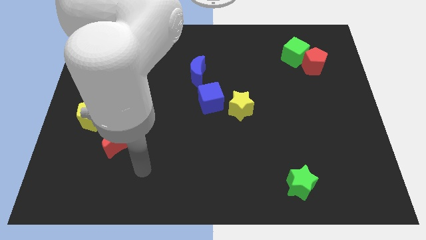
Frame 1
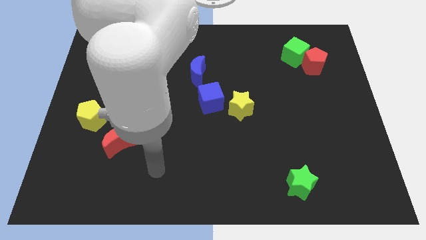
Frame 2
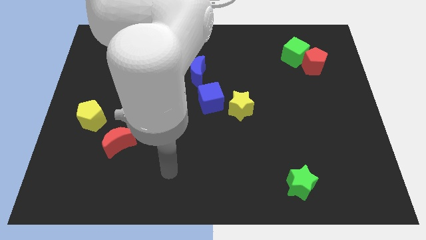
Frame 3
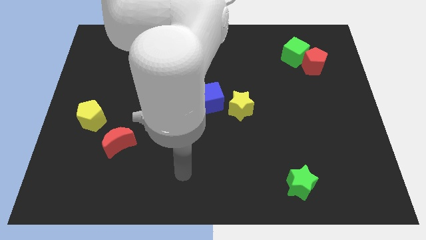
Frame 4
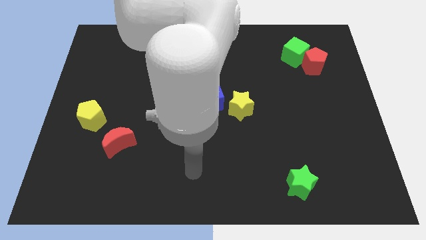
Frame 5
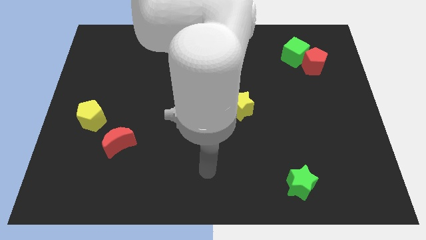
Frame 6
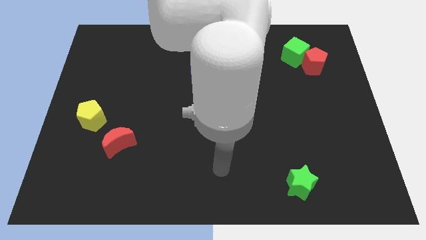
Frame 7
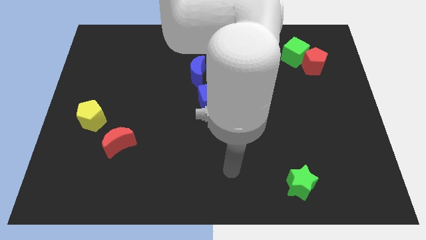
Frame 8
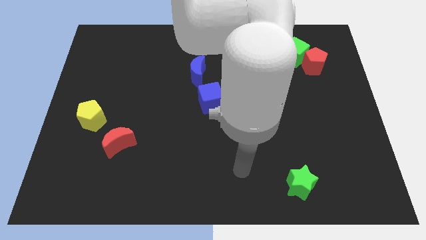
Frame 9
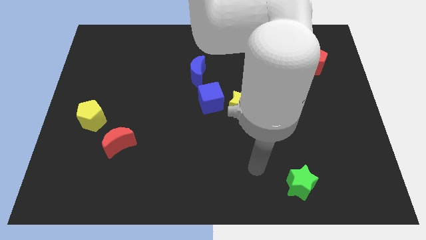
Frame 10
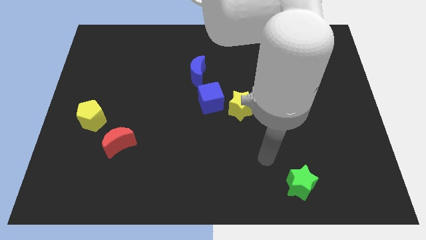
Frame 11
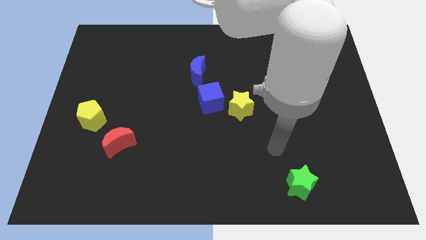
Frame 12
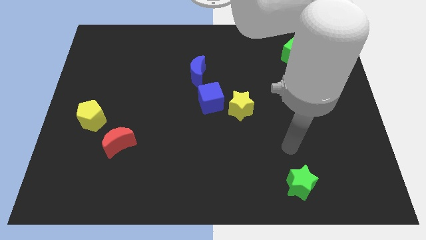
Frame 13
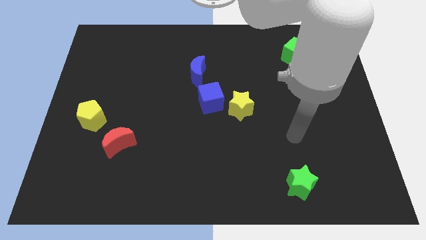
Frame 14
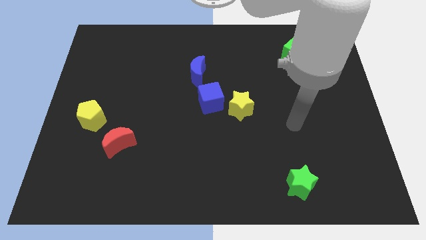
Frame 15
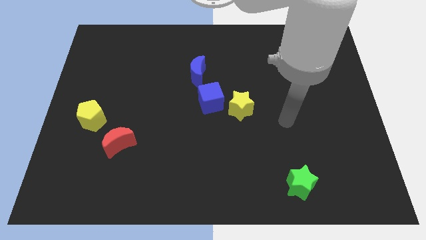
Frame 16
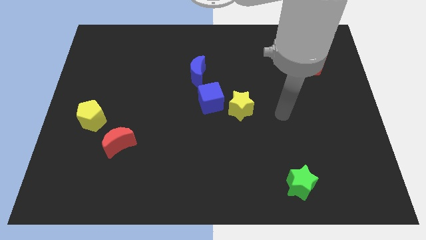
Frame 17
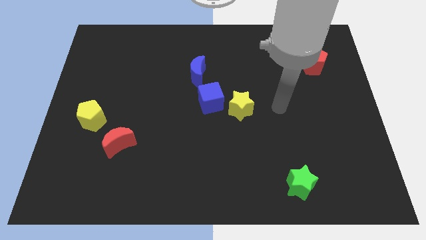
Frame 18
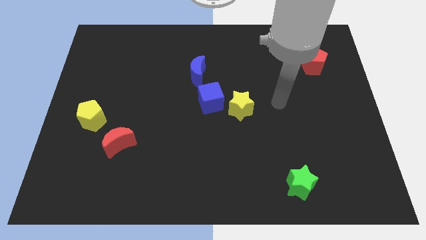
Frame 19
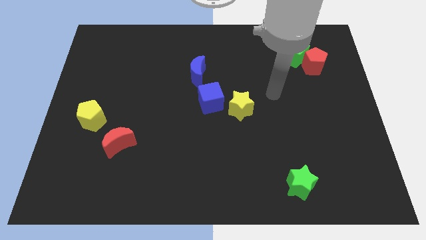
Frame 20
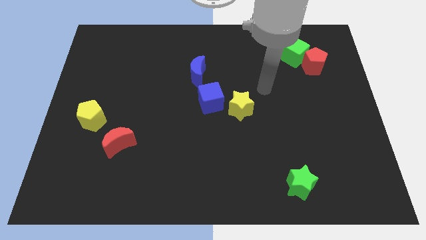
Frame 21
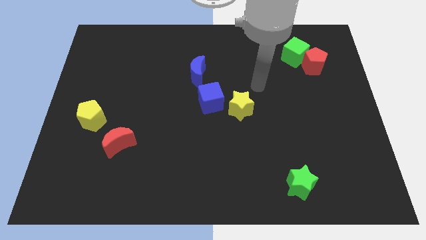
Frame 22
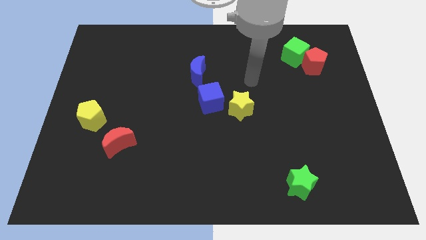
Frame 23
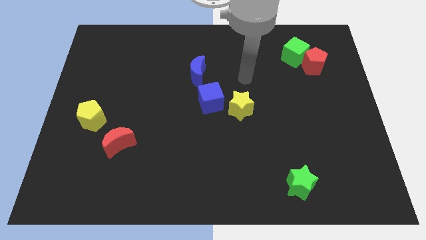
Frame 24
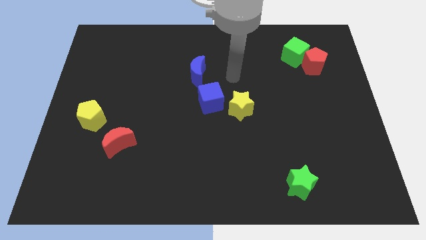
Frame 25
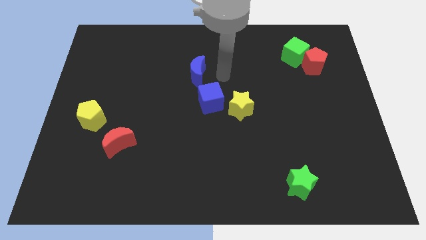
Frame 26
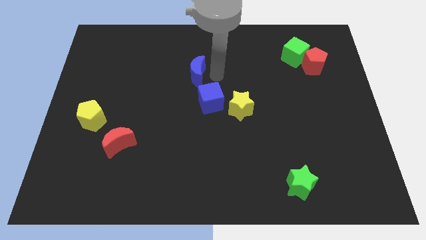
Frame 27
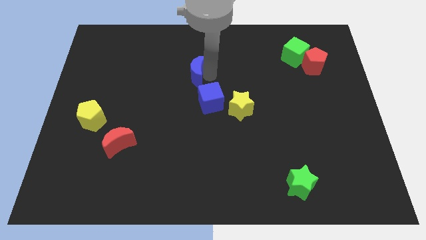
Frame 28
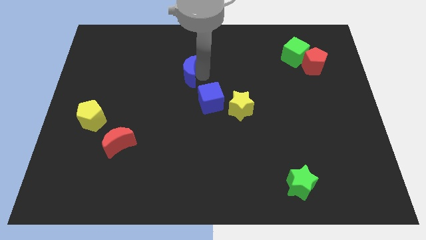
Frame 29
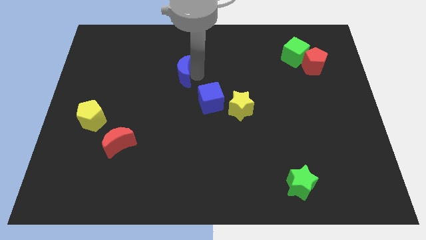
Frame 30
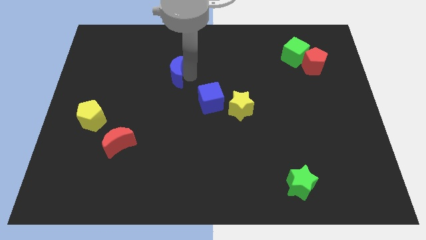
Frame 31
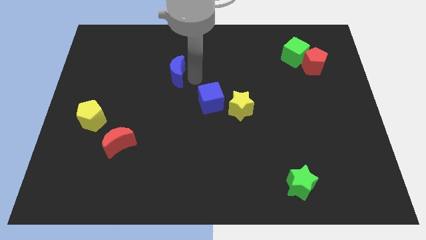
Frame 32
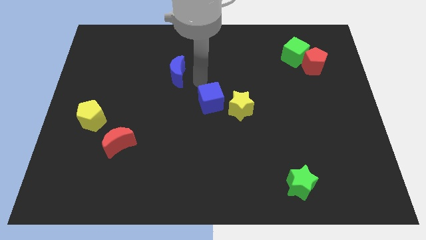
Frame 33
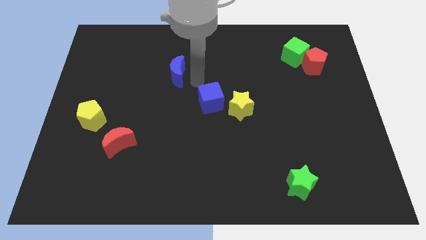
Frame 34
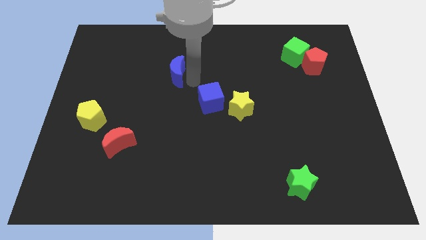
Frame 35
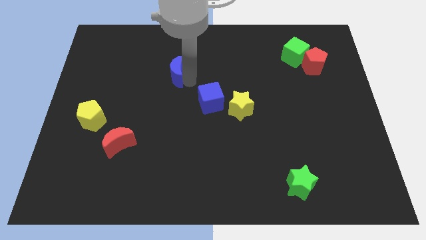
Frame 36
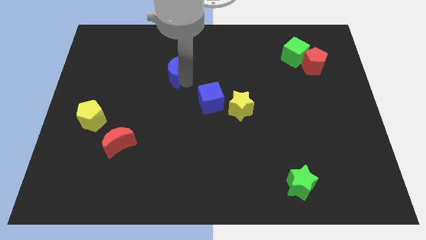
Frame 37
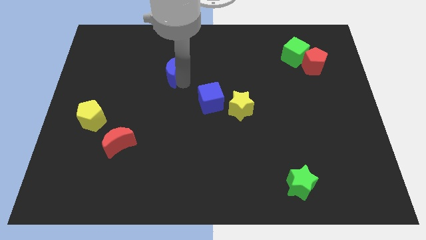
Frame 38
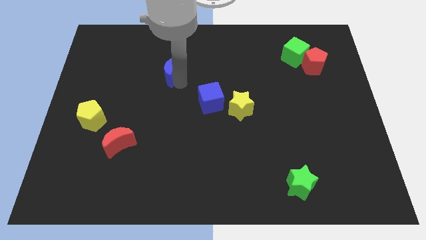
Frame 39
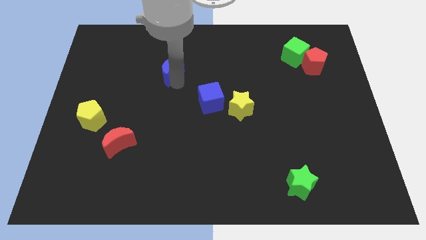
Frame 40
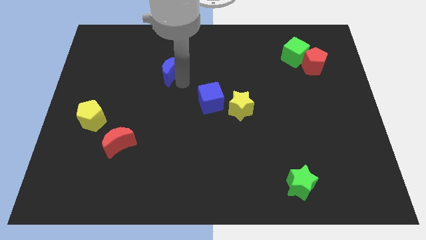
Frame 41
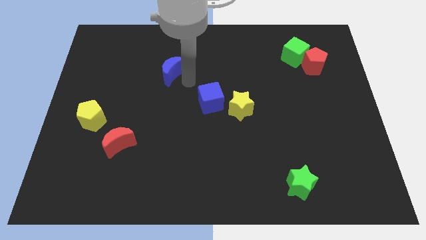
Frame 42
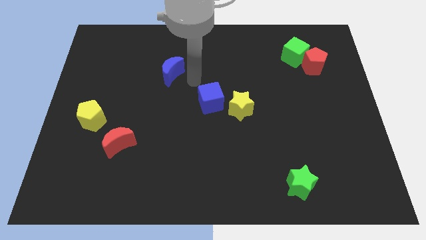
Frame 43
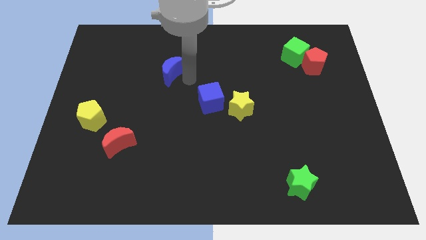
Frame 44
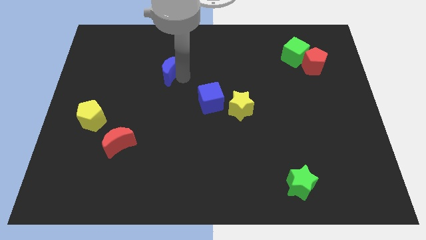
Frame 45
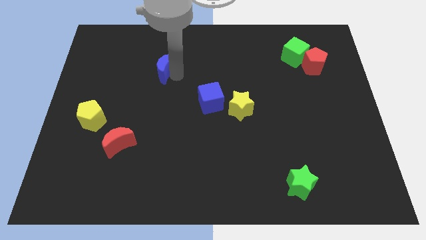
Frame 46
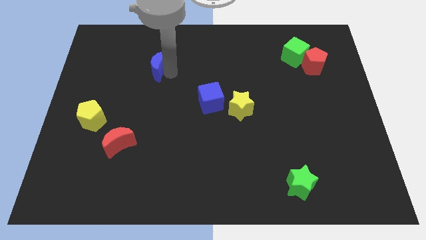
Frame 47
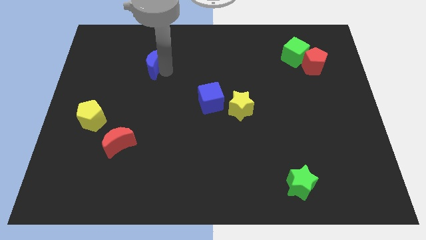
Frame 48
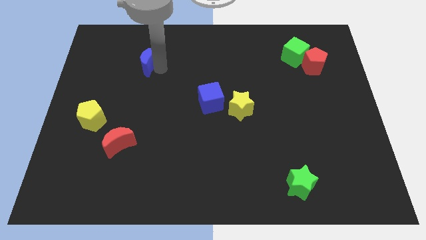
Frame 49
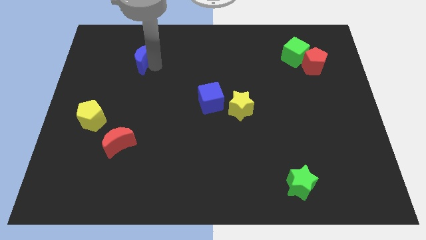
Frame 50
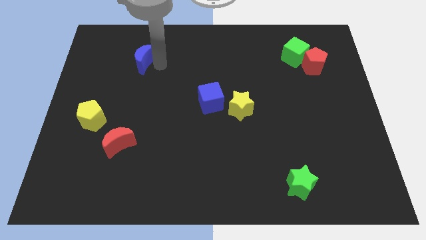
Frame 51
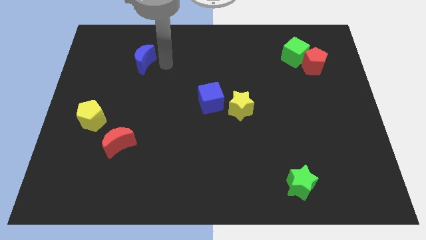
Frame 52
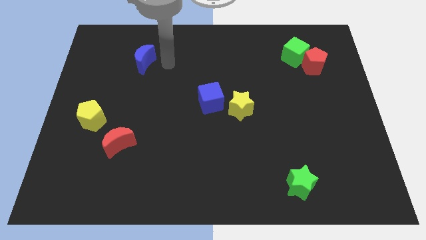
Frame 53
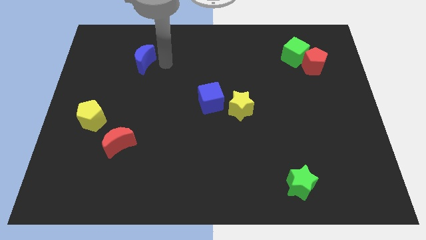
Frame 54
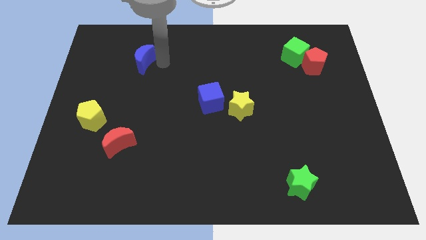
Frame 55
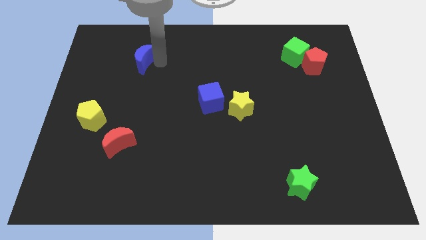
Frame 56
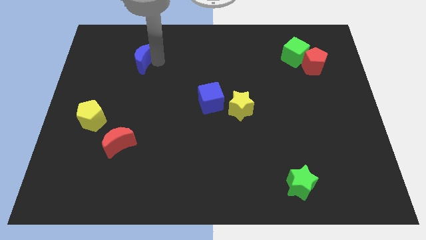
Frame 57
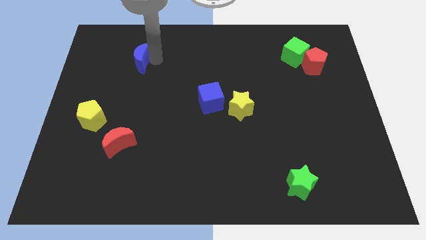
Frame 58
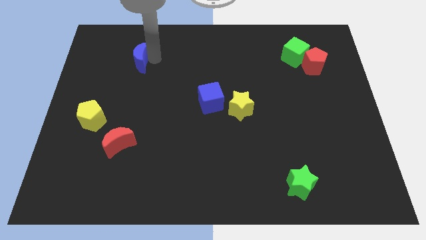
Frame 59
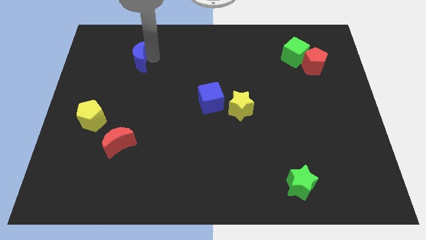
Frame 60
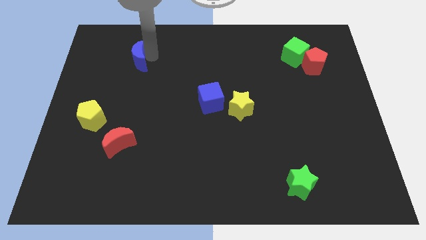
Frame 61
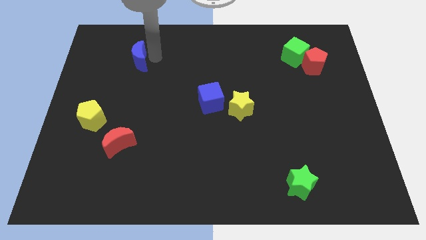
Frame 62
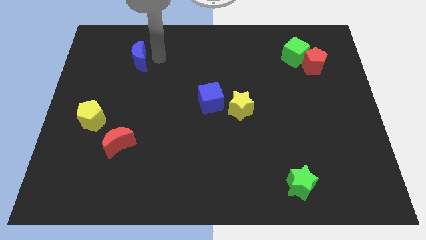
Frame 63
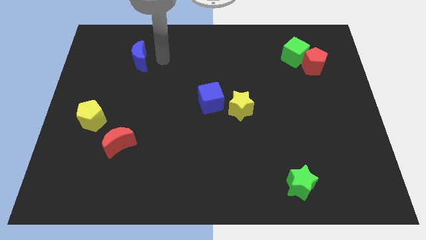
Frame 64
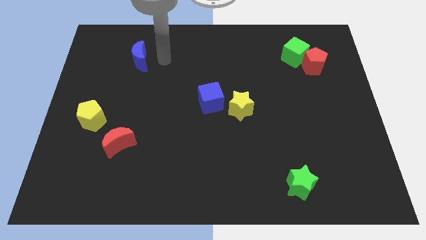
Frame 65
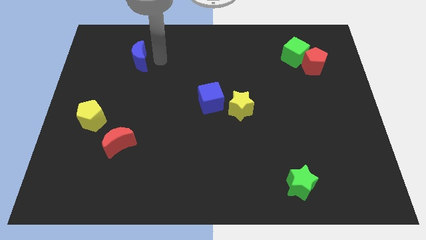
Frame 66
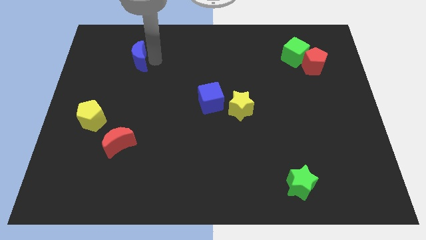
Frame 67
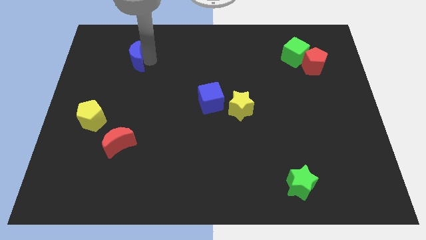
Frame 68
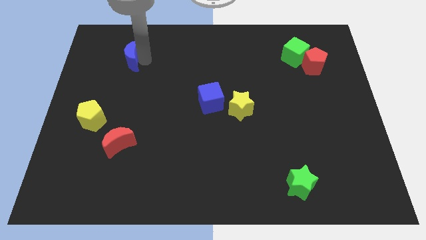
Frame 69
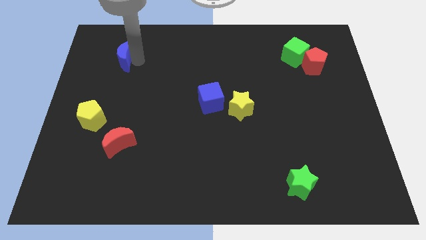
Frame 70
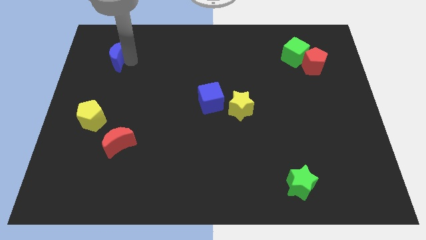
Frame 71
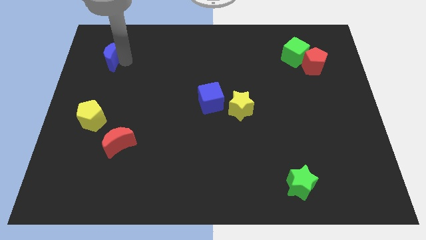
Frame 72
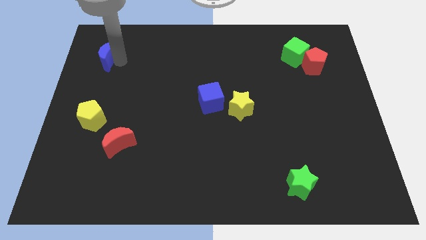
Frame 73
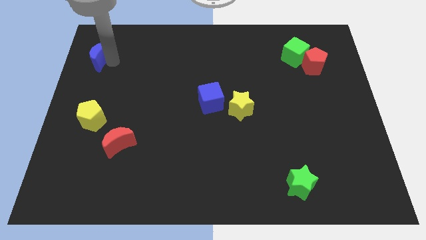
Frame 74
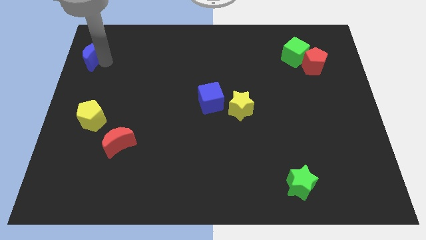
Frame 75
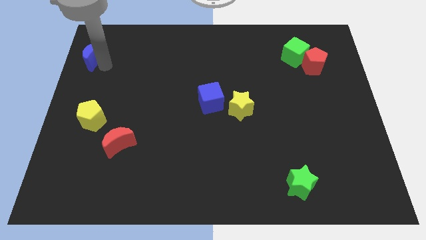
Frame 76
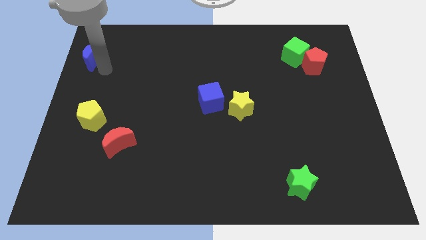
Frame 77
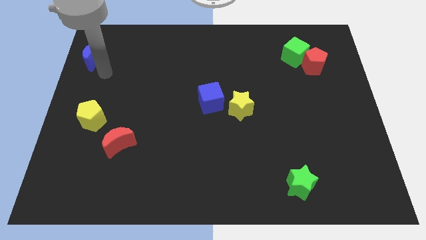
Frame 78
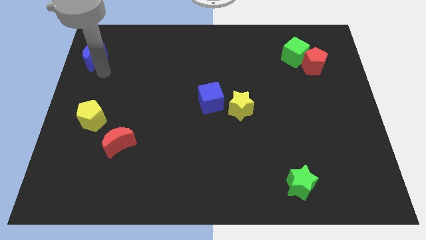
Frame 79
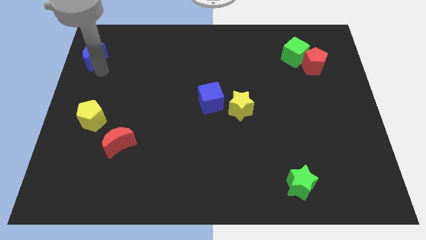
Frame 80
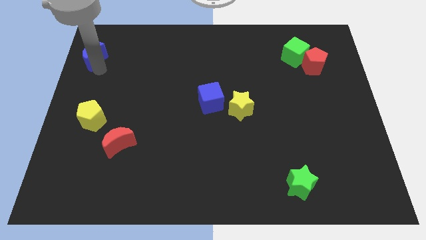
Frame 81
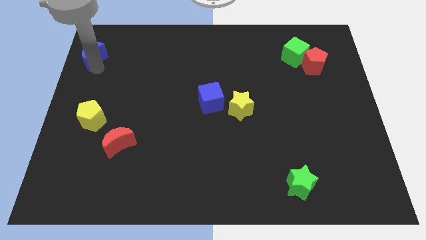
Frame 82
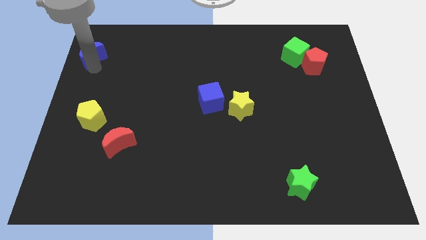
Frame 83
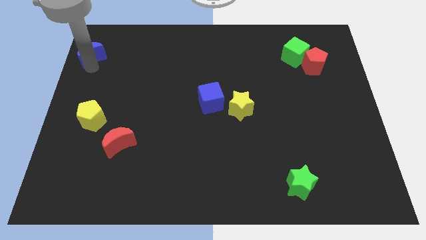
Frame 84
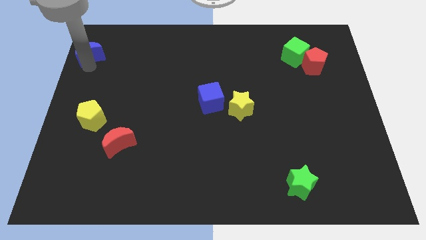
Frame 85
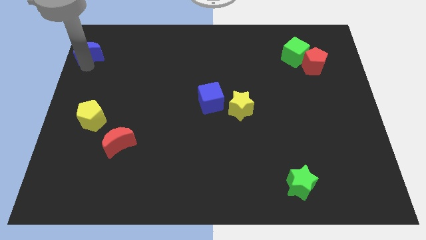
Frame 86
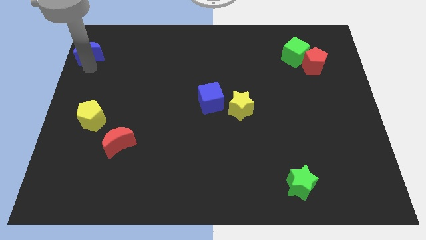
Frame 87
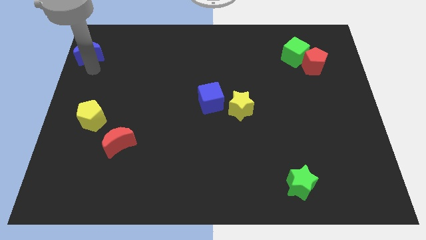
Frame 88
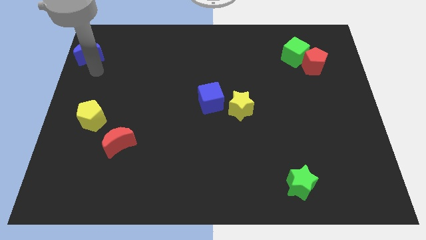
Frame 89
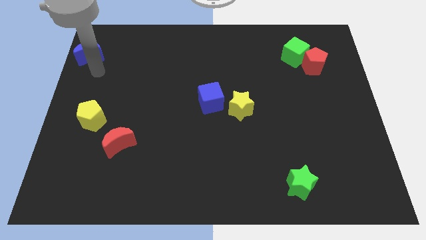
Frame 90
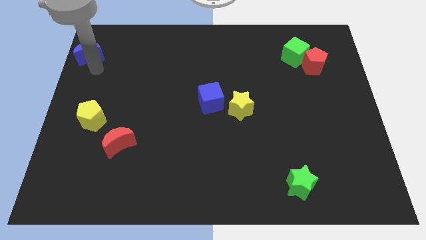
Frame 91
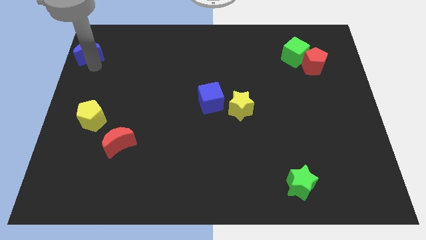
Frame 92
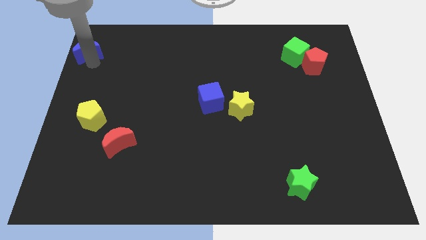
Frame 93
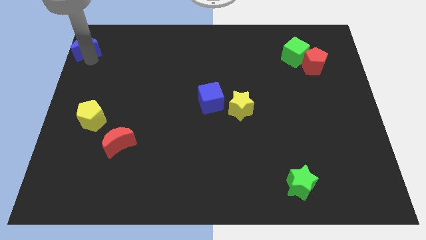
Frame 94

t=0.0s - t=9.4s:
move the blue moon to the upper left corner
